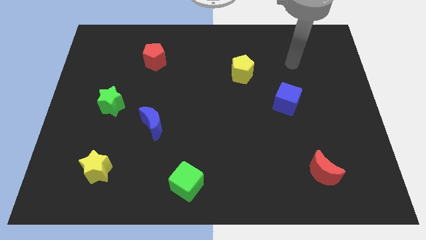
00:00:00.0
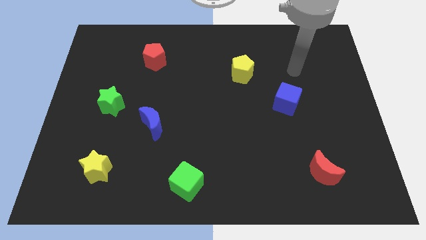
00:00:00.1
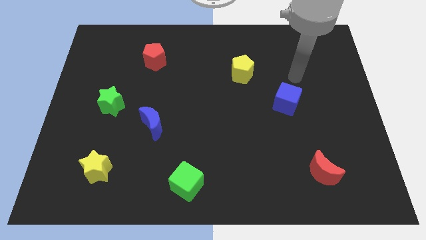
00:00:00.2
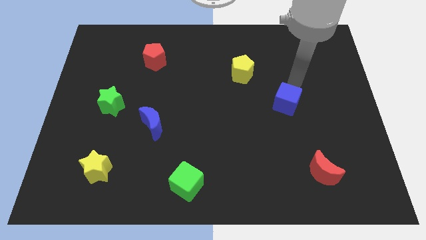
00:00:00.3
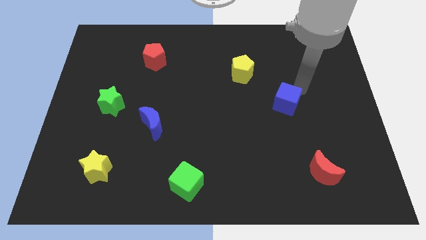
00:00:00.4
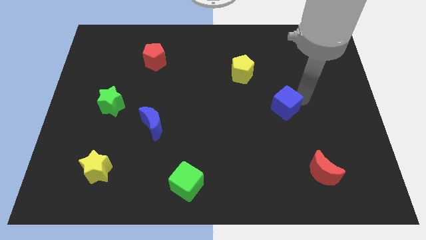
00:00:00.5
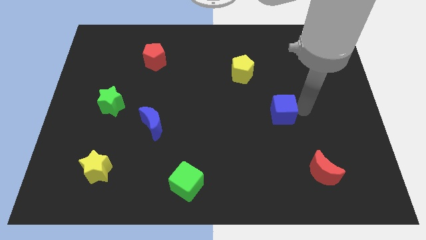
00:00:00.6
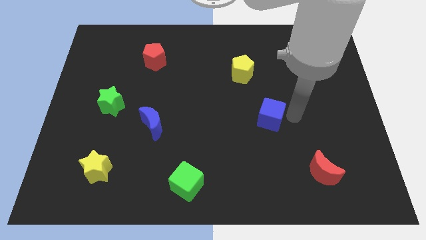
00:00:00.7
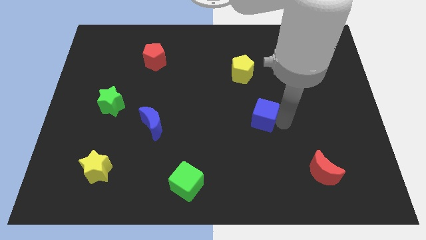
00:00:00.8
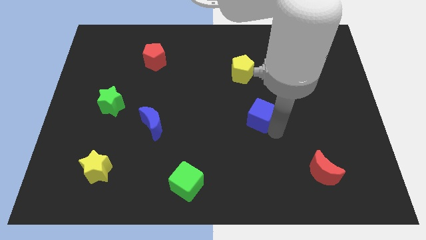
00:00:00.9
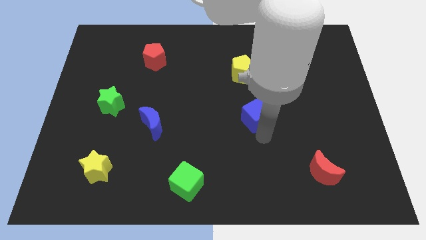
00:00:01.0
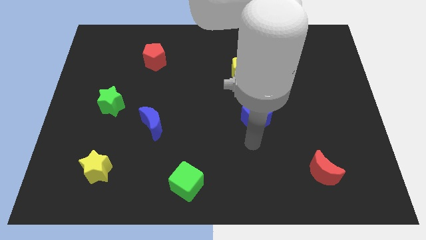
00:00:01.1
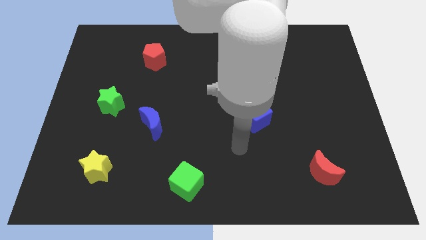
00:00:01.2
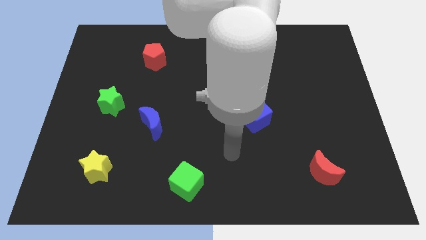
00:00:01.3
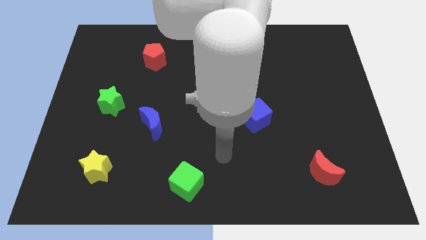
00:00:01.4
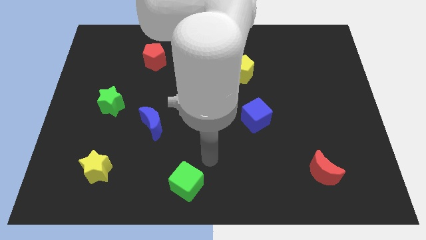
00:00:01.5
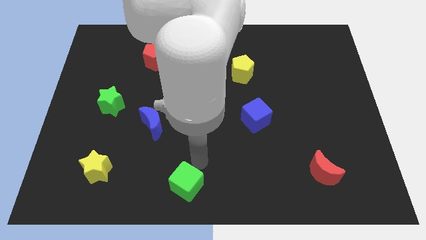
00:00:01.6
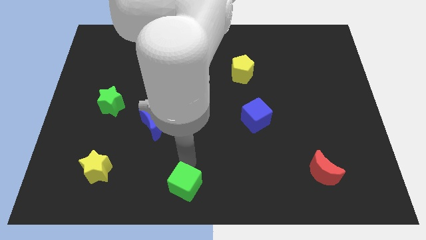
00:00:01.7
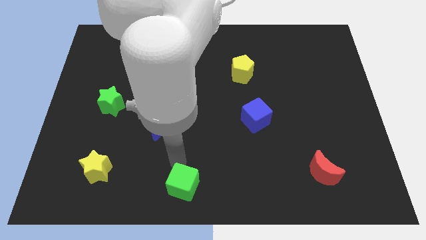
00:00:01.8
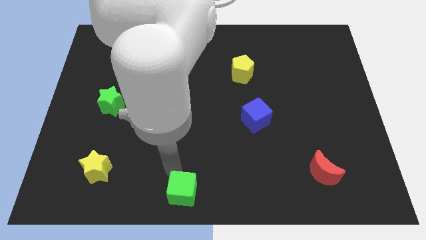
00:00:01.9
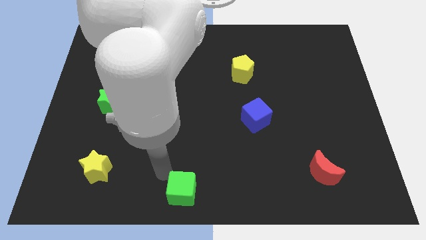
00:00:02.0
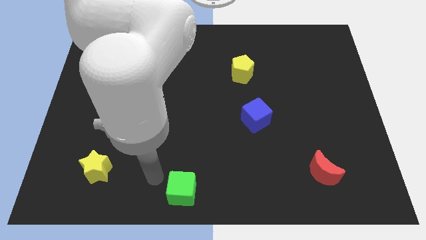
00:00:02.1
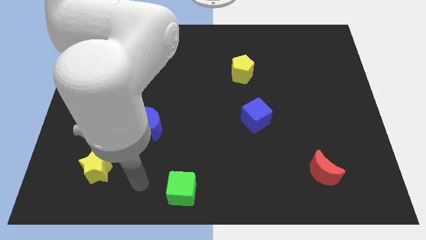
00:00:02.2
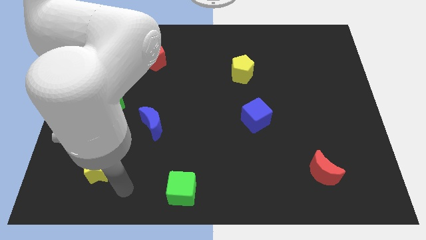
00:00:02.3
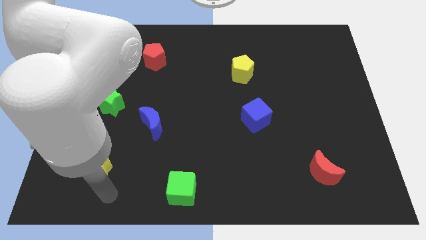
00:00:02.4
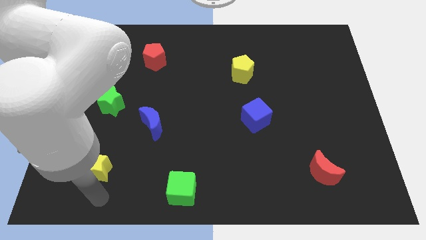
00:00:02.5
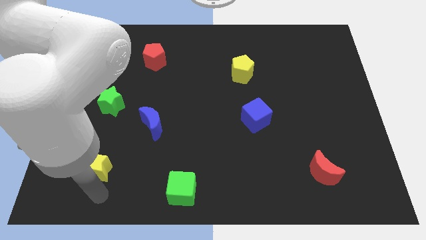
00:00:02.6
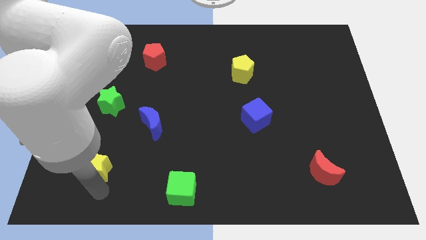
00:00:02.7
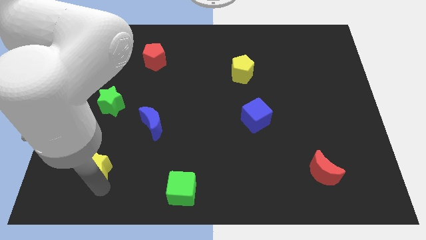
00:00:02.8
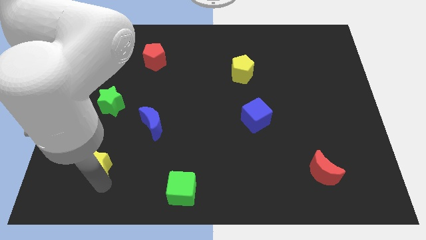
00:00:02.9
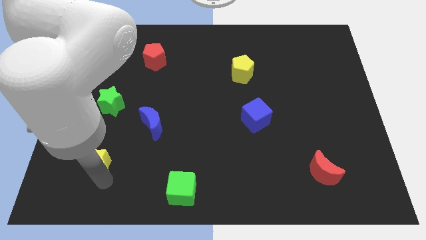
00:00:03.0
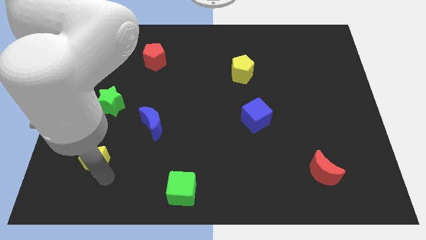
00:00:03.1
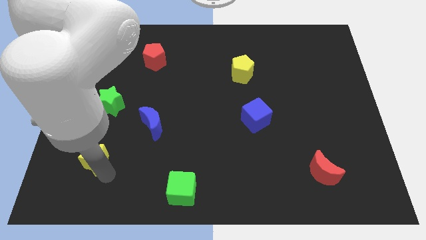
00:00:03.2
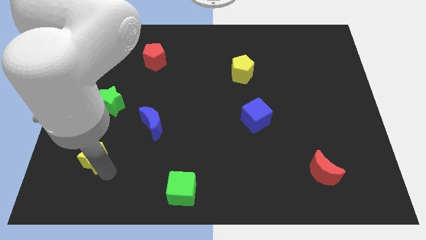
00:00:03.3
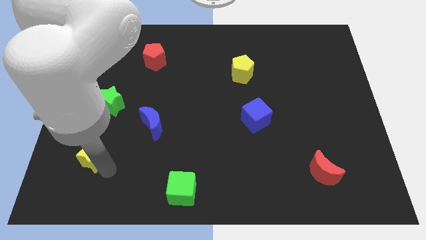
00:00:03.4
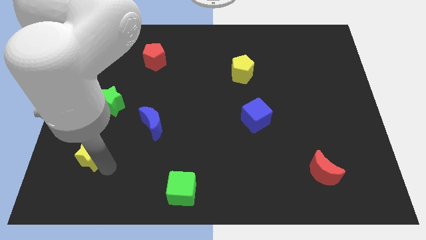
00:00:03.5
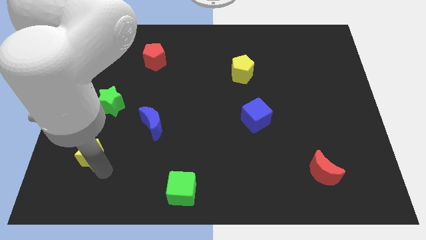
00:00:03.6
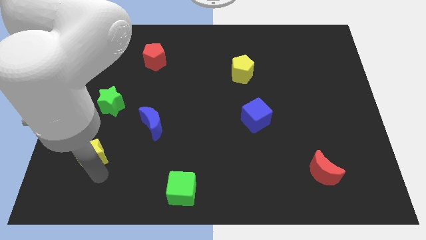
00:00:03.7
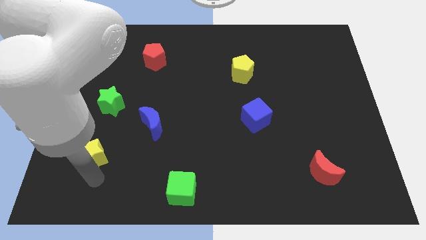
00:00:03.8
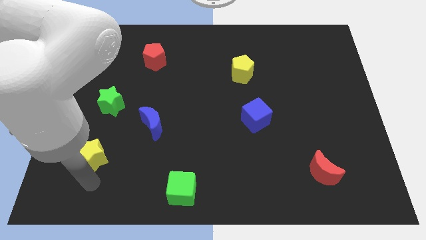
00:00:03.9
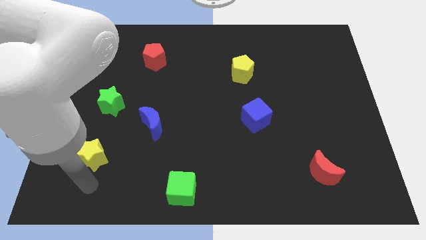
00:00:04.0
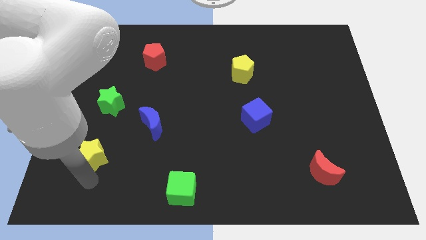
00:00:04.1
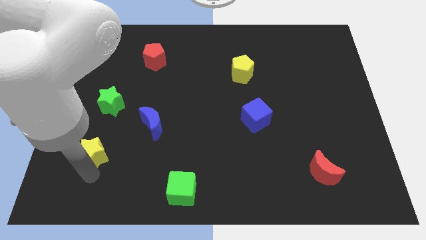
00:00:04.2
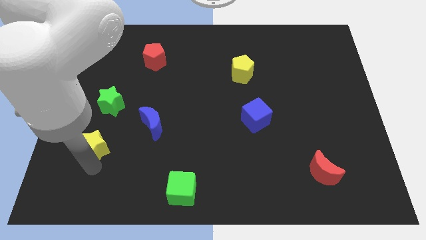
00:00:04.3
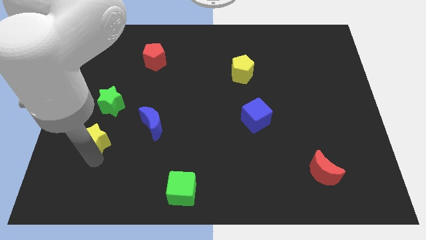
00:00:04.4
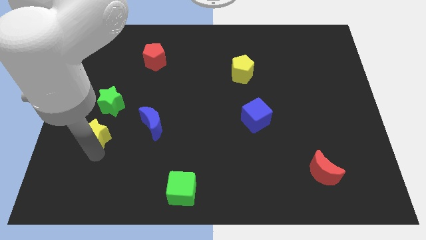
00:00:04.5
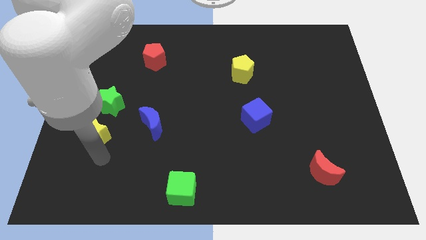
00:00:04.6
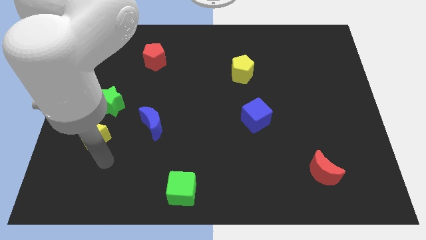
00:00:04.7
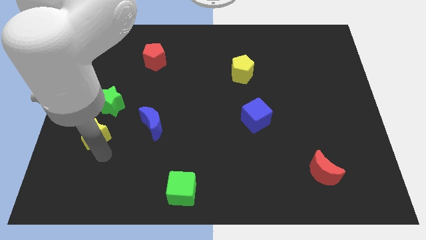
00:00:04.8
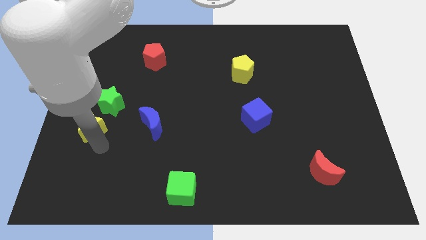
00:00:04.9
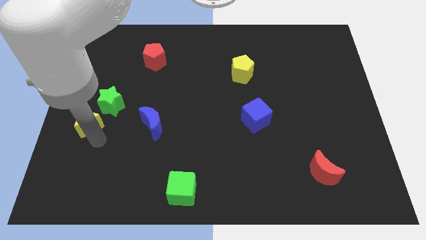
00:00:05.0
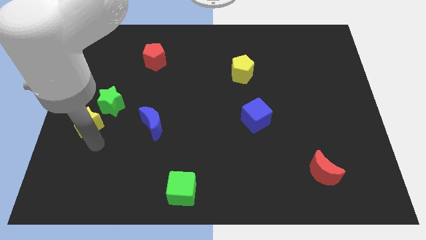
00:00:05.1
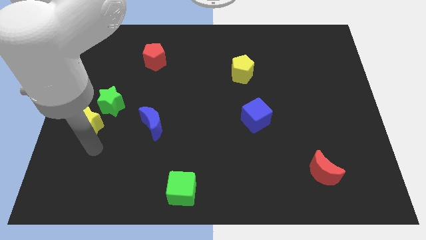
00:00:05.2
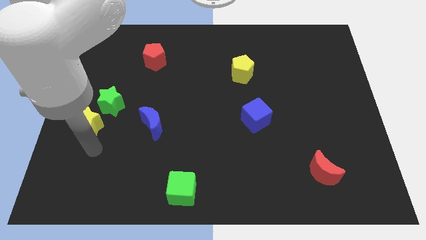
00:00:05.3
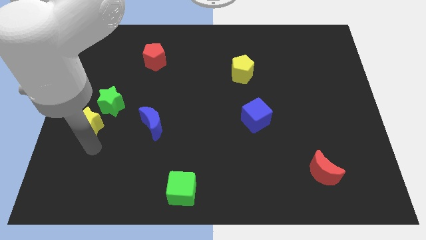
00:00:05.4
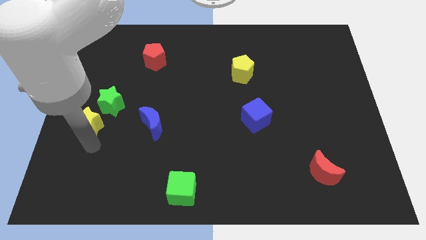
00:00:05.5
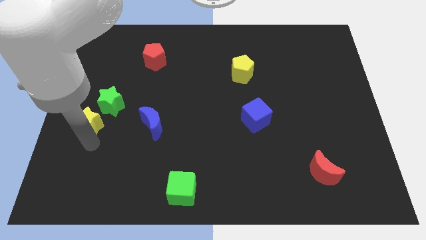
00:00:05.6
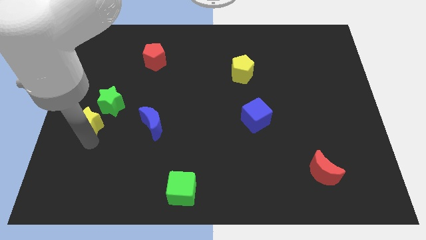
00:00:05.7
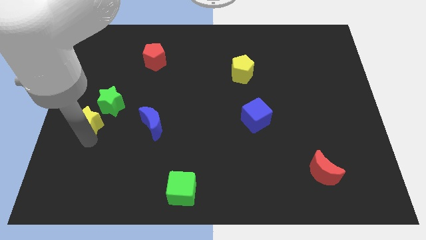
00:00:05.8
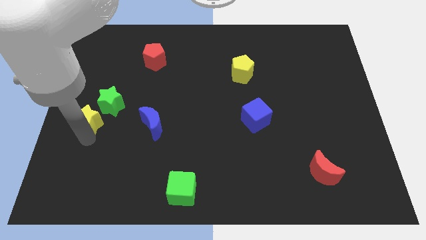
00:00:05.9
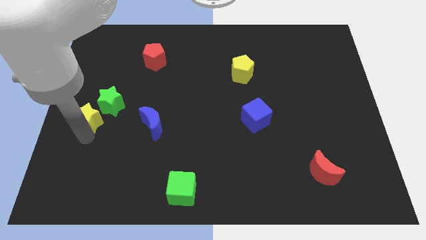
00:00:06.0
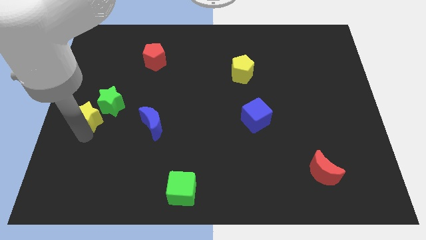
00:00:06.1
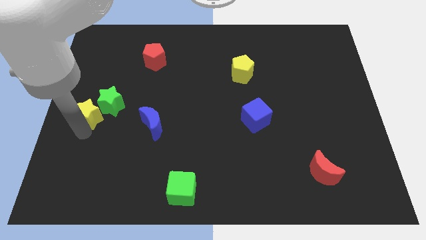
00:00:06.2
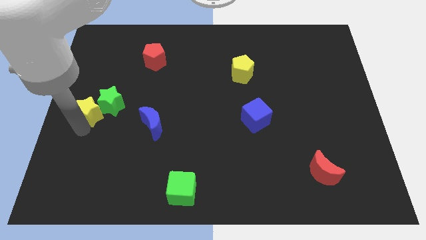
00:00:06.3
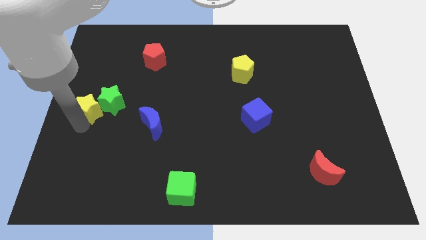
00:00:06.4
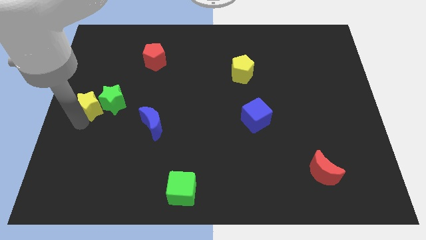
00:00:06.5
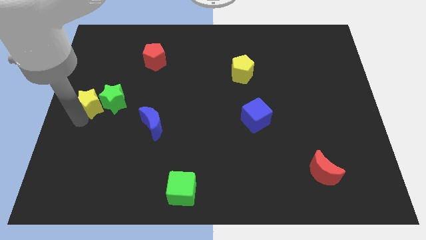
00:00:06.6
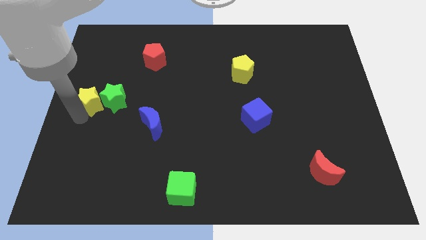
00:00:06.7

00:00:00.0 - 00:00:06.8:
slide the yellow star diagonally up and to the left of the green star

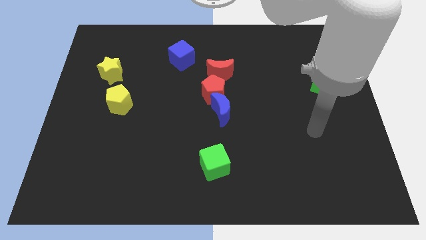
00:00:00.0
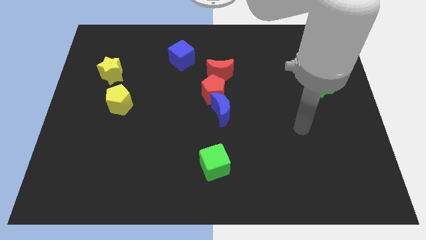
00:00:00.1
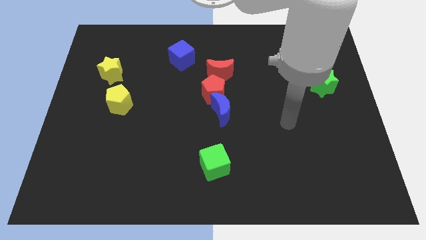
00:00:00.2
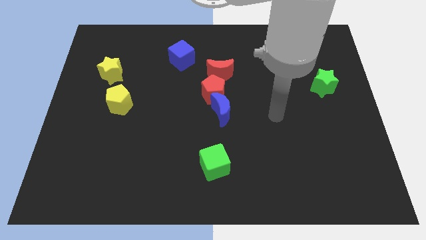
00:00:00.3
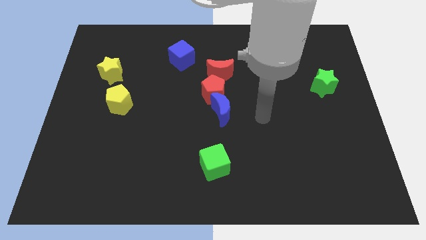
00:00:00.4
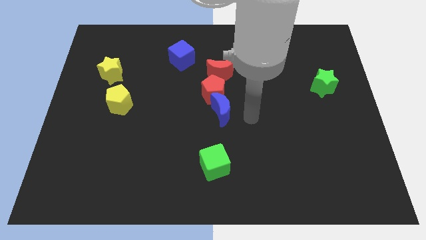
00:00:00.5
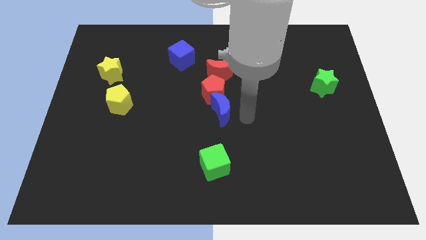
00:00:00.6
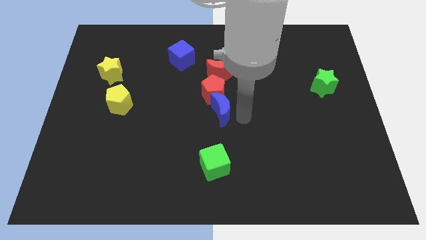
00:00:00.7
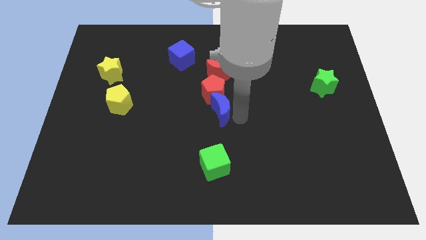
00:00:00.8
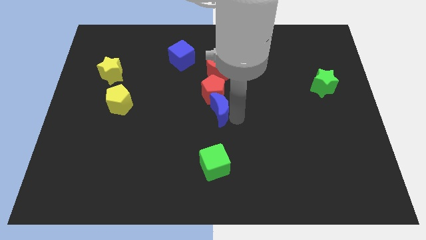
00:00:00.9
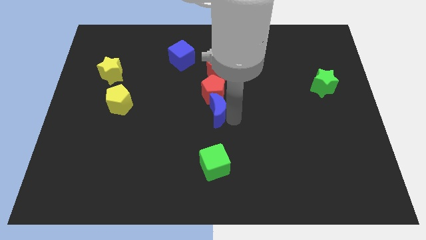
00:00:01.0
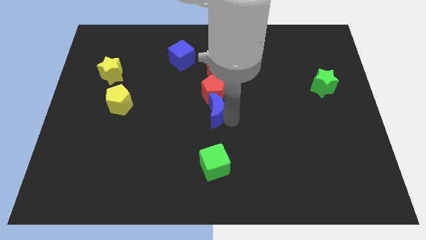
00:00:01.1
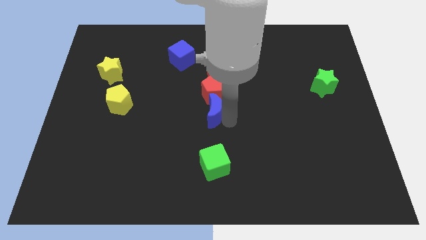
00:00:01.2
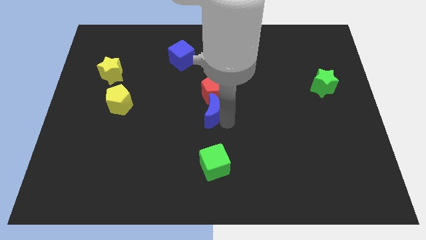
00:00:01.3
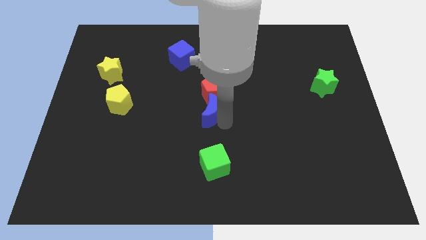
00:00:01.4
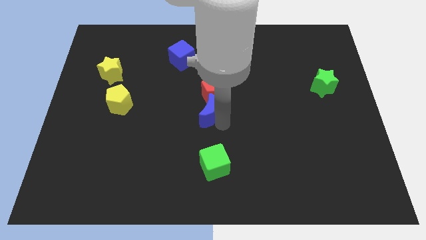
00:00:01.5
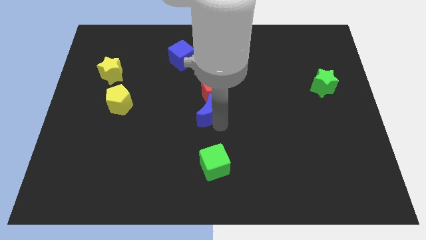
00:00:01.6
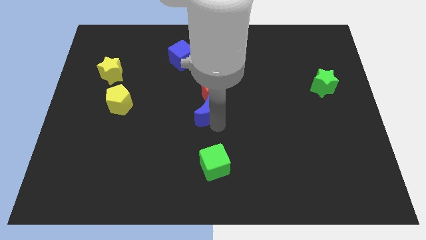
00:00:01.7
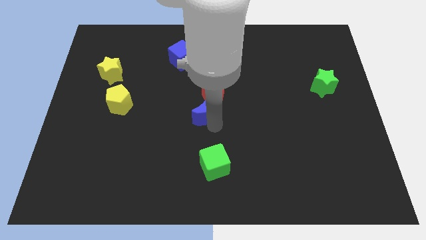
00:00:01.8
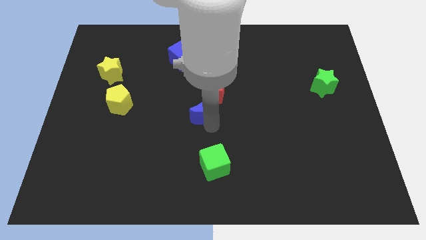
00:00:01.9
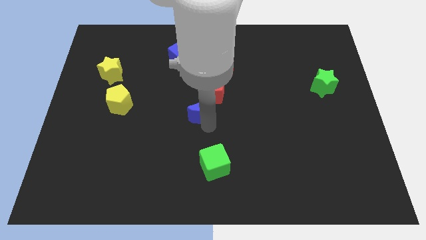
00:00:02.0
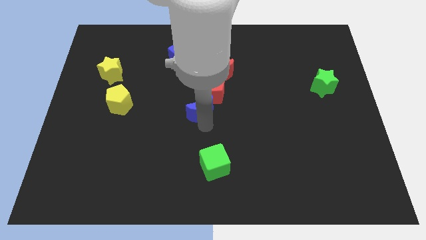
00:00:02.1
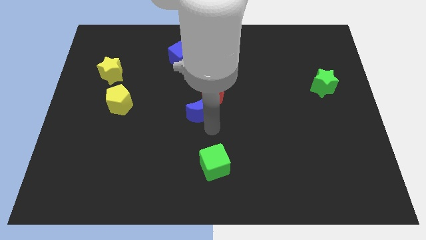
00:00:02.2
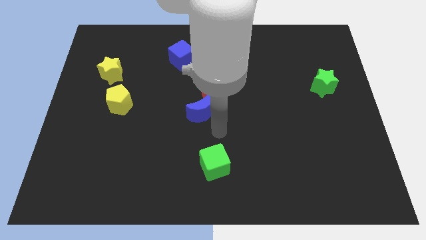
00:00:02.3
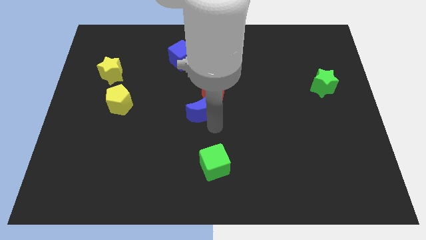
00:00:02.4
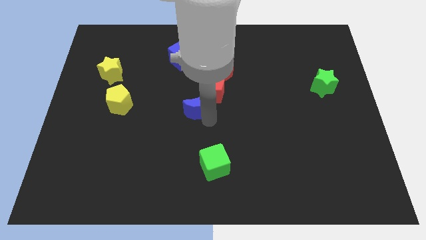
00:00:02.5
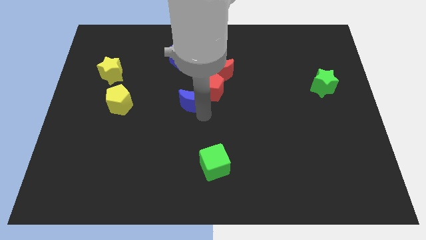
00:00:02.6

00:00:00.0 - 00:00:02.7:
move the blue moon below the blue cube
